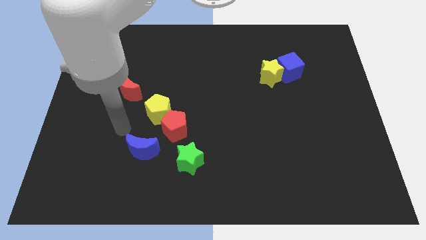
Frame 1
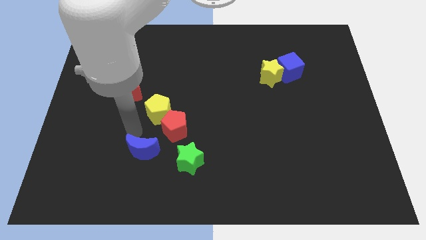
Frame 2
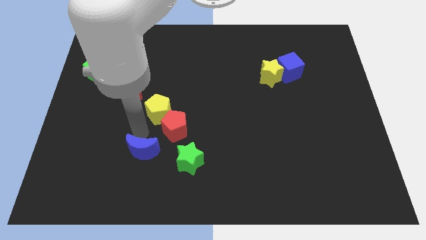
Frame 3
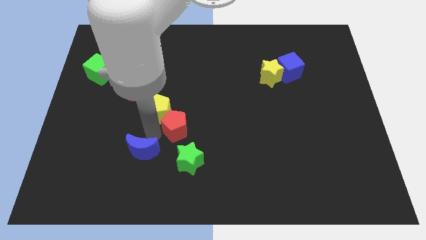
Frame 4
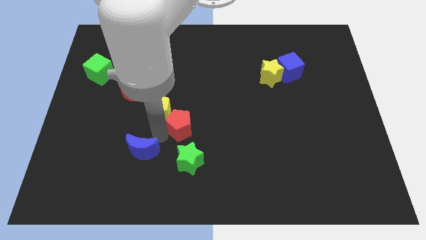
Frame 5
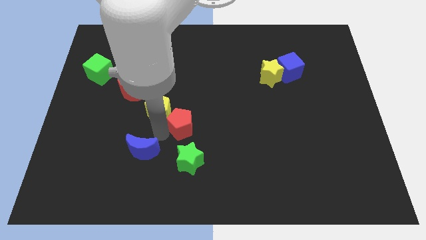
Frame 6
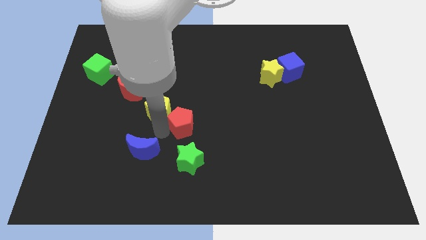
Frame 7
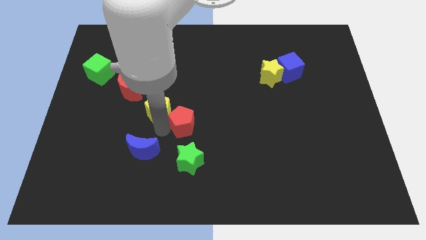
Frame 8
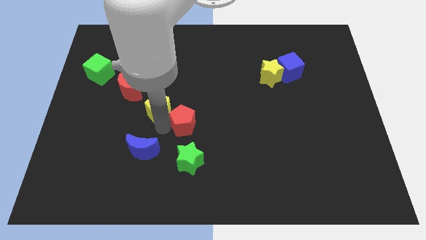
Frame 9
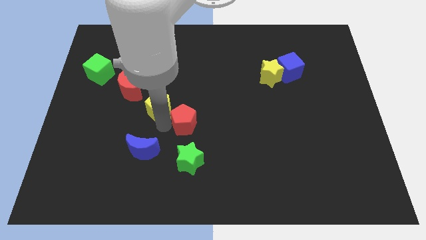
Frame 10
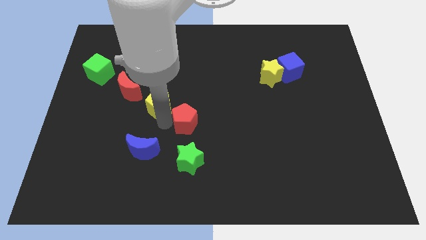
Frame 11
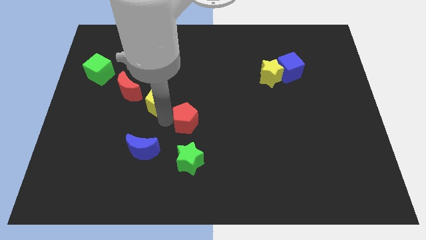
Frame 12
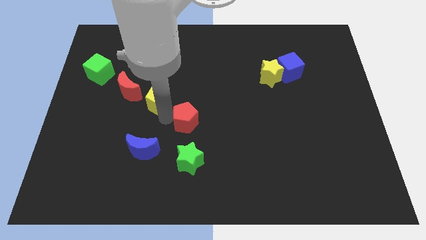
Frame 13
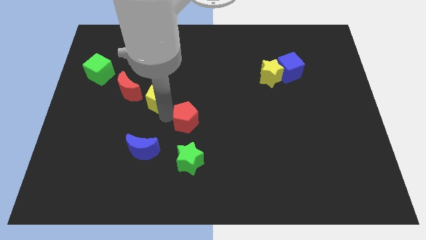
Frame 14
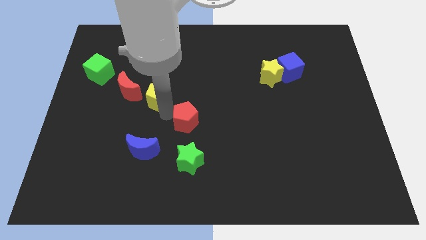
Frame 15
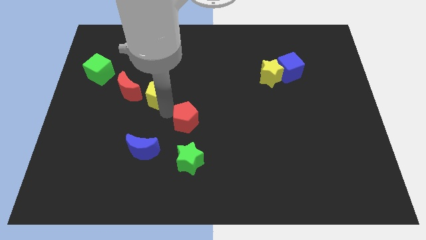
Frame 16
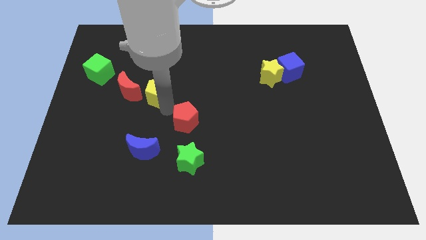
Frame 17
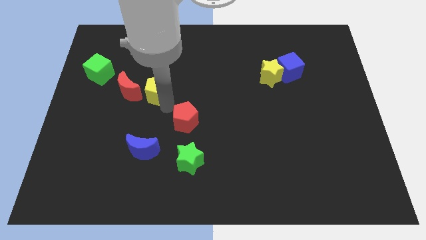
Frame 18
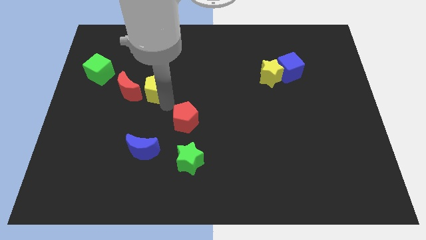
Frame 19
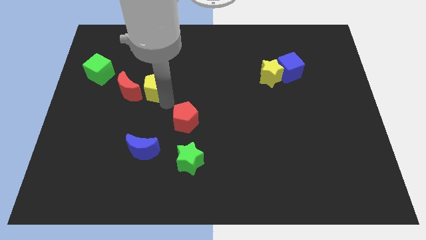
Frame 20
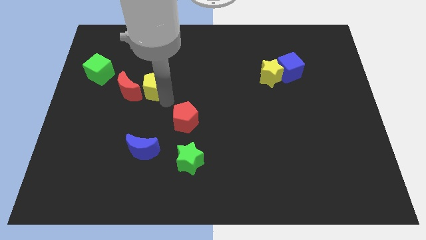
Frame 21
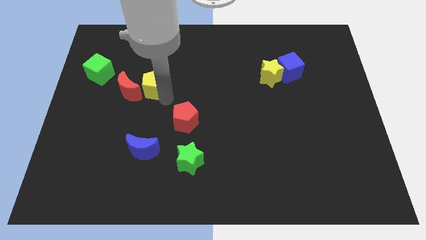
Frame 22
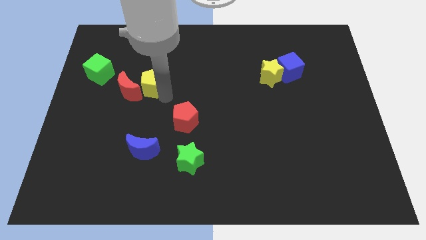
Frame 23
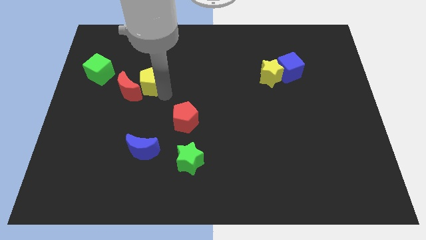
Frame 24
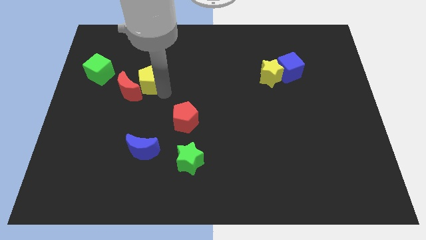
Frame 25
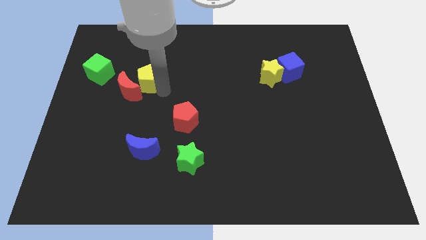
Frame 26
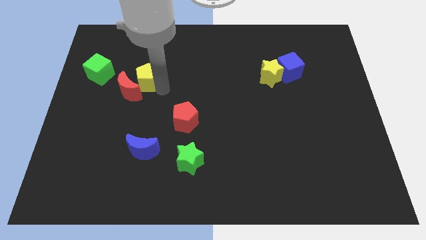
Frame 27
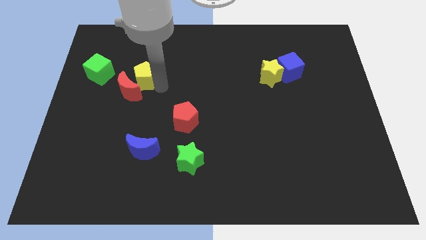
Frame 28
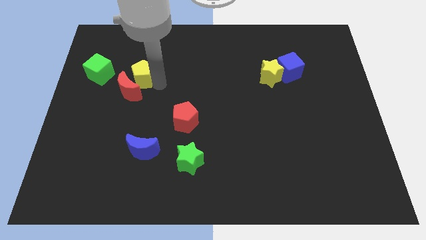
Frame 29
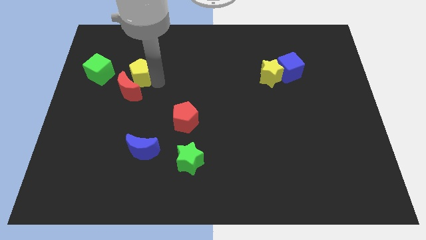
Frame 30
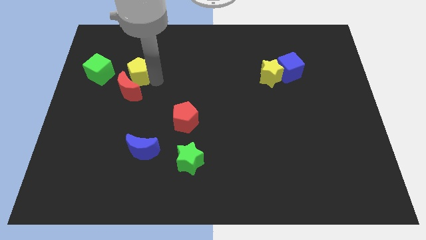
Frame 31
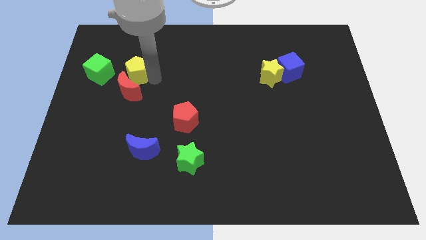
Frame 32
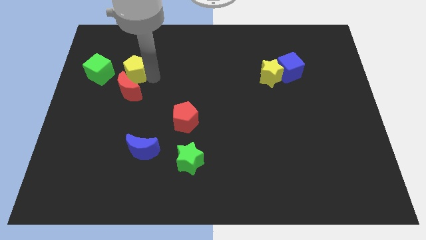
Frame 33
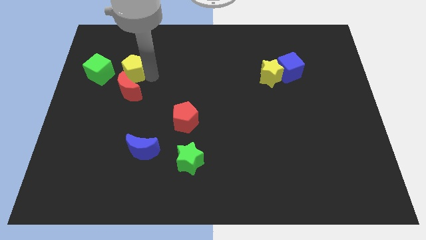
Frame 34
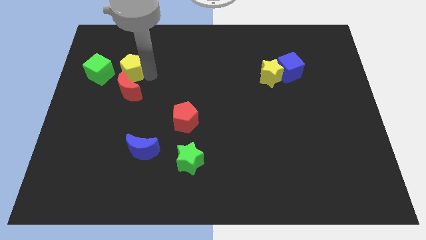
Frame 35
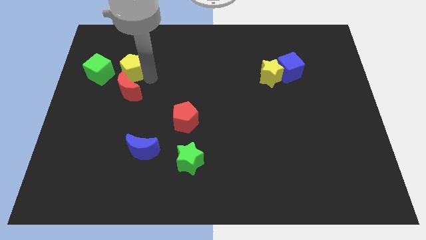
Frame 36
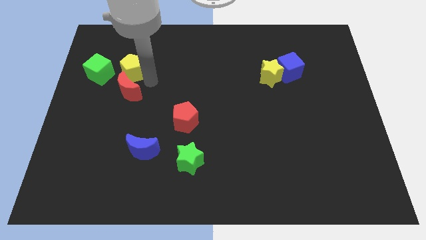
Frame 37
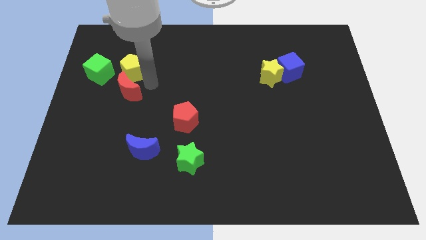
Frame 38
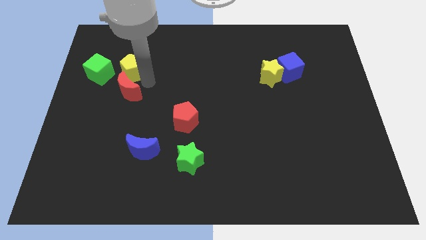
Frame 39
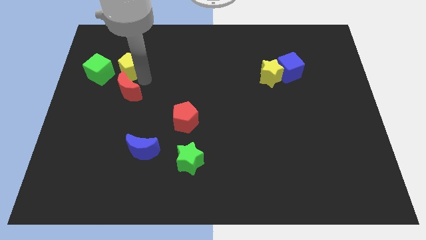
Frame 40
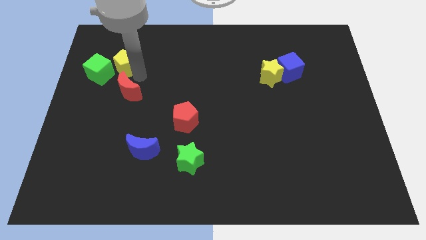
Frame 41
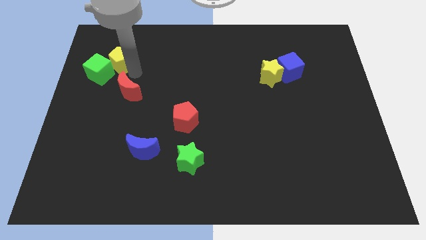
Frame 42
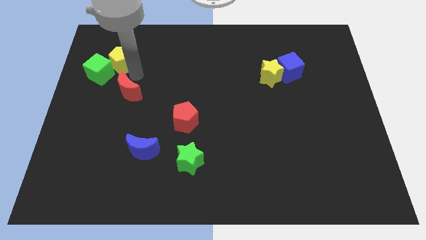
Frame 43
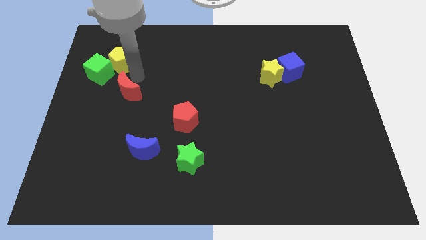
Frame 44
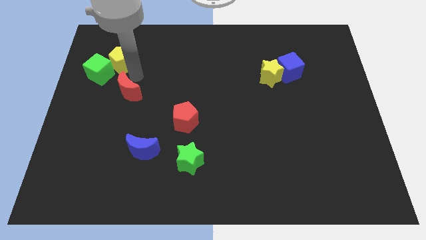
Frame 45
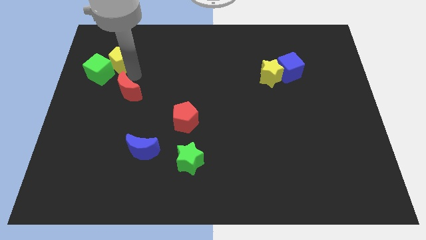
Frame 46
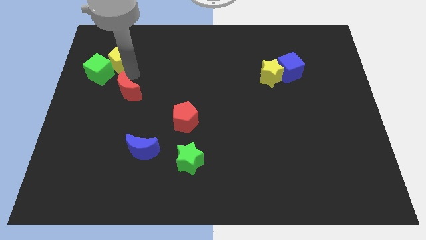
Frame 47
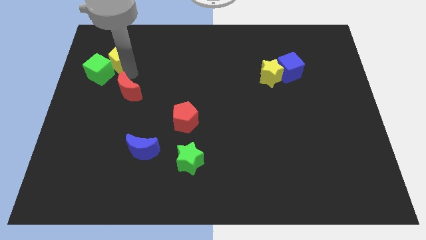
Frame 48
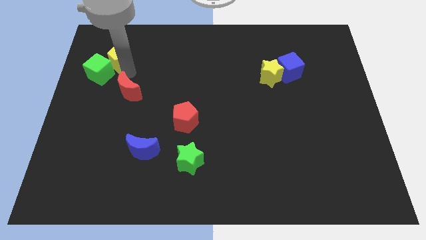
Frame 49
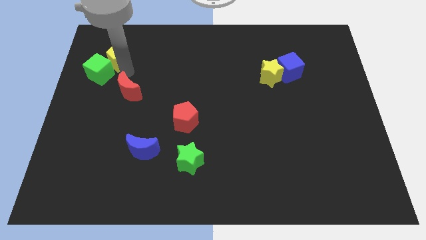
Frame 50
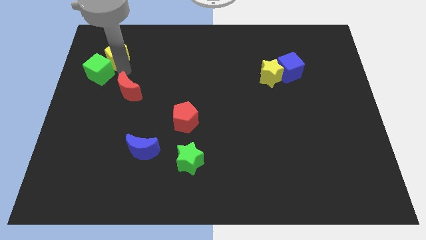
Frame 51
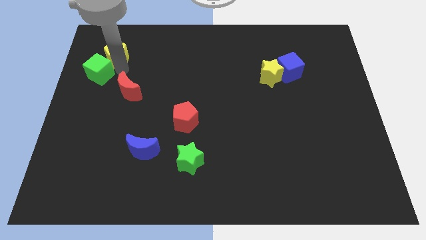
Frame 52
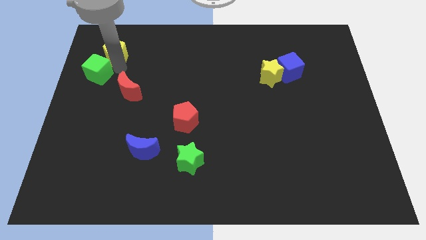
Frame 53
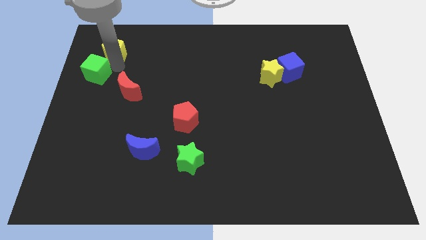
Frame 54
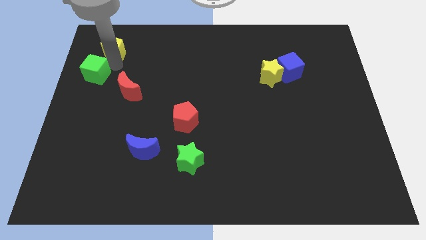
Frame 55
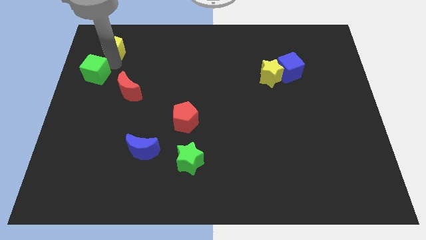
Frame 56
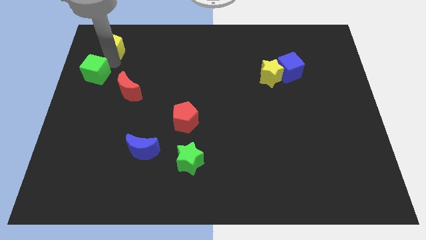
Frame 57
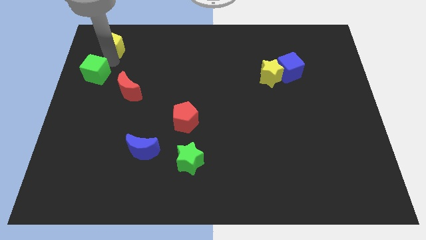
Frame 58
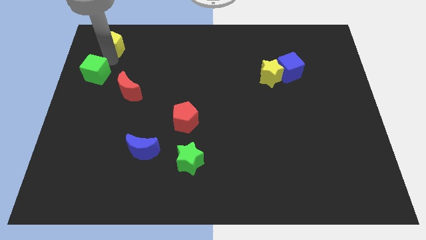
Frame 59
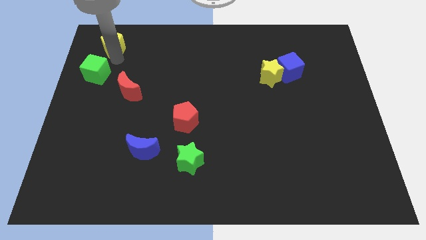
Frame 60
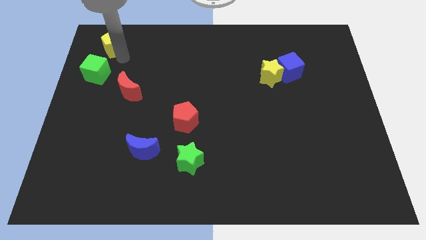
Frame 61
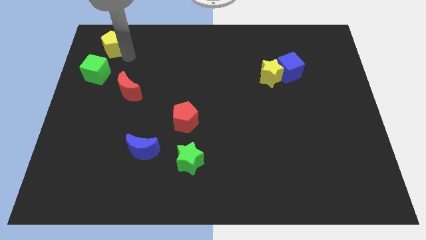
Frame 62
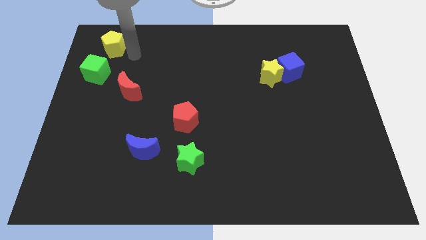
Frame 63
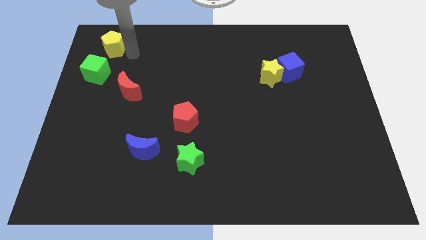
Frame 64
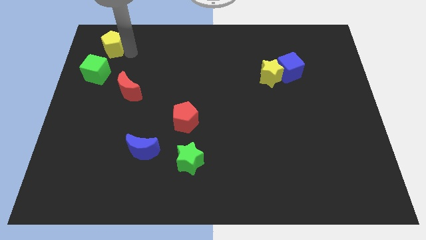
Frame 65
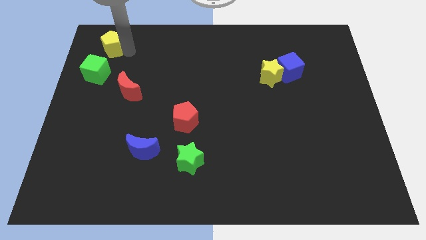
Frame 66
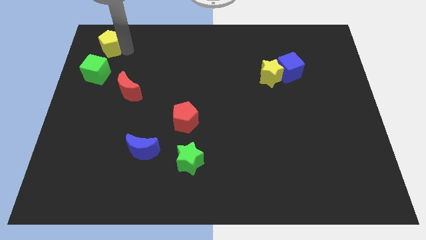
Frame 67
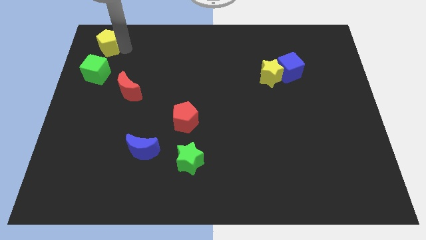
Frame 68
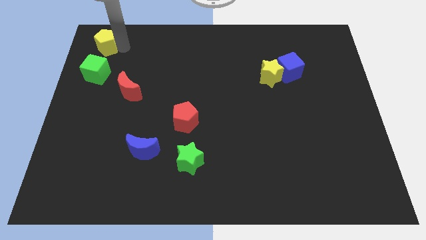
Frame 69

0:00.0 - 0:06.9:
slide the yellow pentagon to the top left of the board
